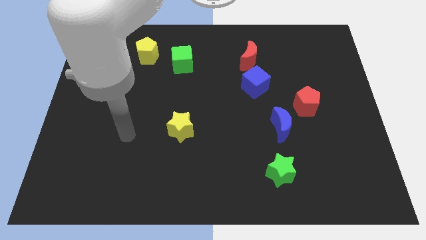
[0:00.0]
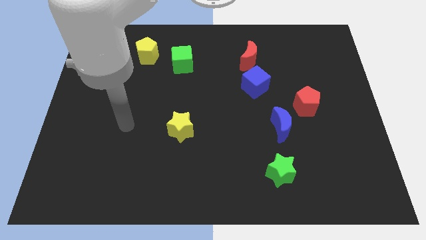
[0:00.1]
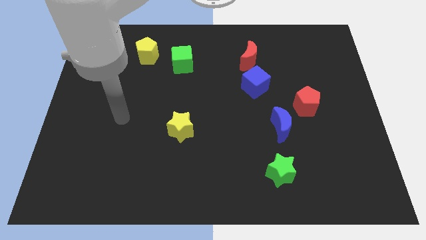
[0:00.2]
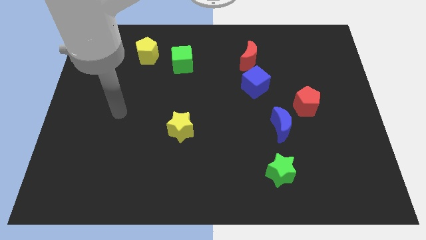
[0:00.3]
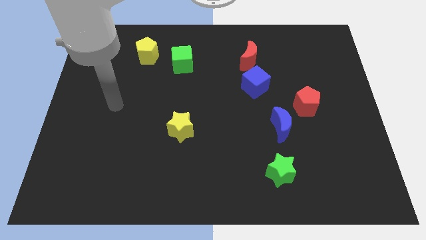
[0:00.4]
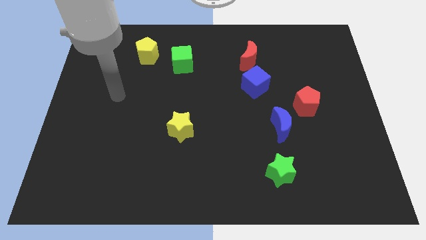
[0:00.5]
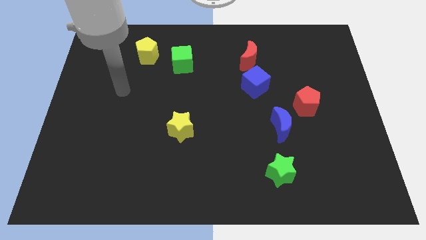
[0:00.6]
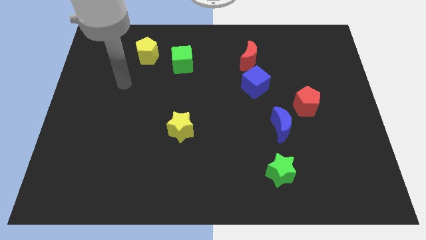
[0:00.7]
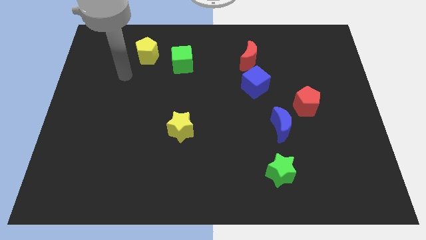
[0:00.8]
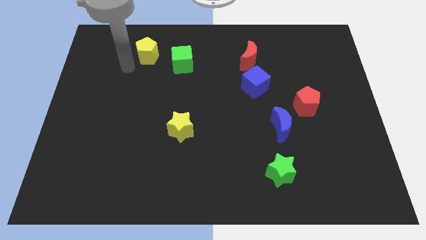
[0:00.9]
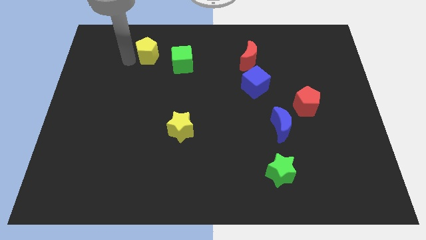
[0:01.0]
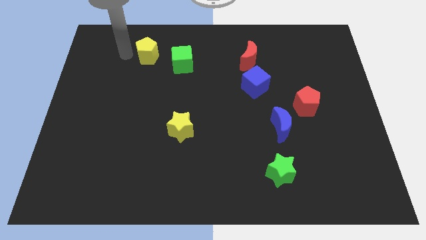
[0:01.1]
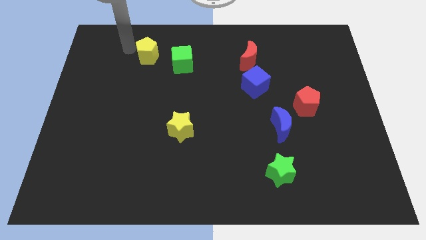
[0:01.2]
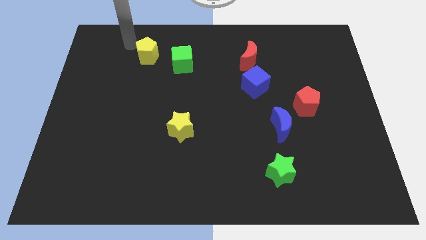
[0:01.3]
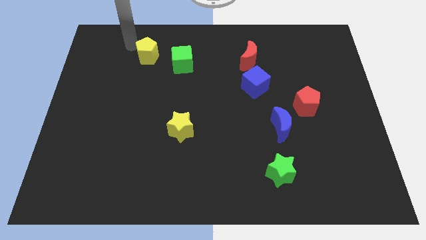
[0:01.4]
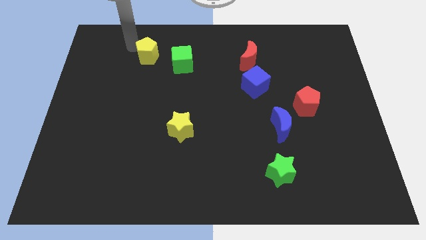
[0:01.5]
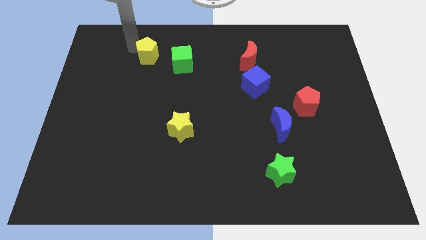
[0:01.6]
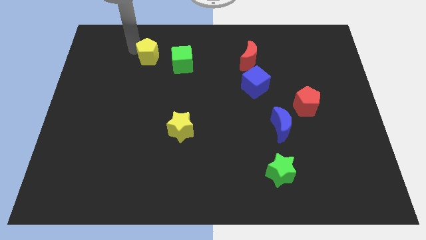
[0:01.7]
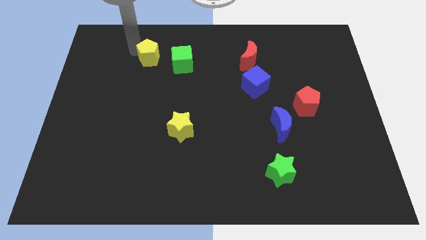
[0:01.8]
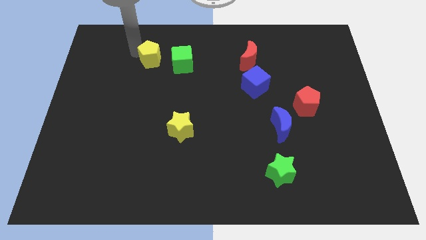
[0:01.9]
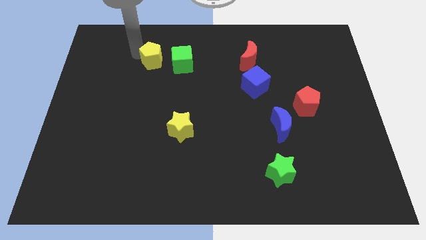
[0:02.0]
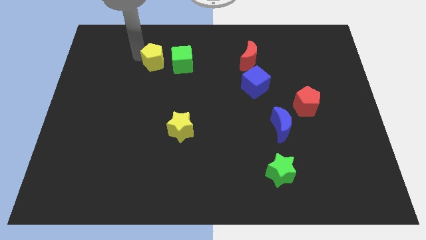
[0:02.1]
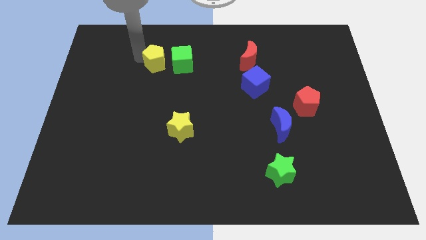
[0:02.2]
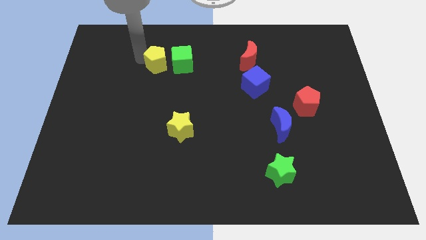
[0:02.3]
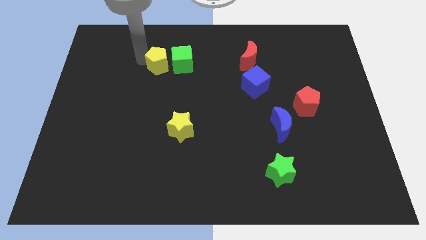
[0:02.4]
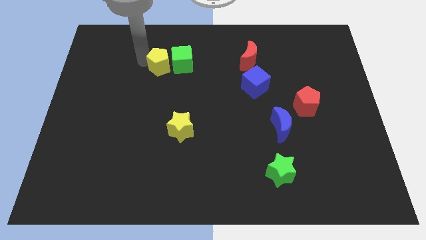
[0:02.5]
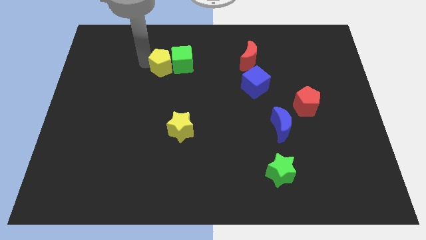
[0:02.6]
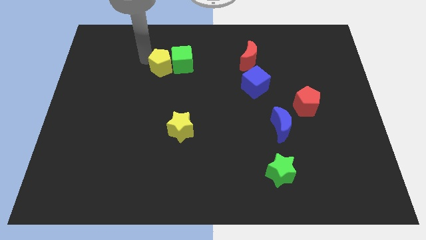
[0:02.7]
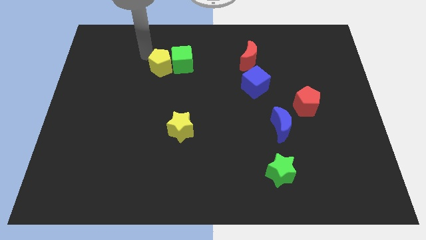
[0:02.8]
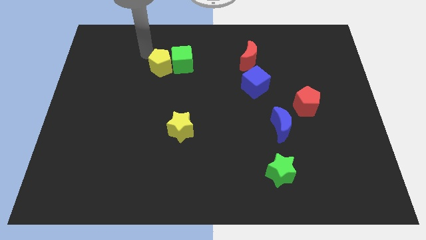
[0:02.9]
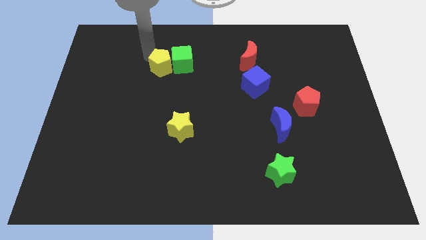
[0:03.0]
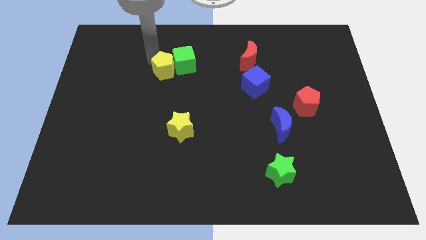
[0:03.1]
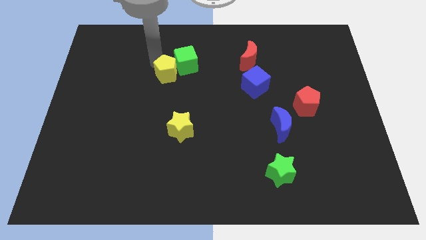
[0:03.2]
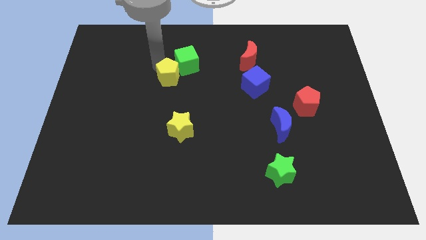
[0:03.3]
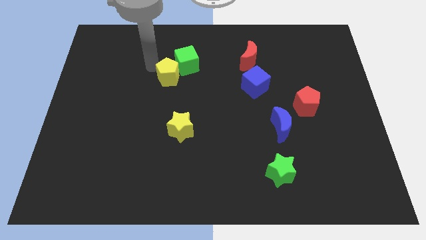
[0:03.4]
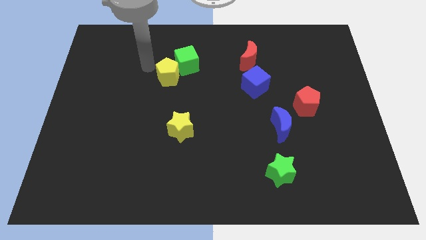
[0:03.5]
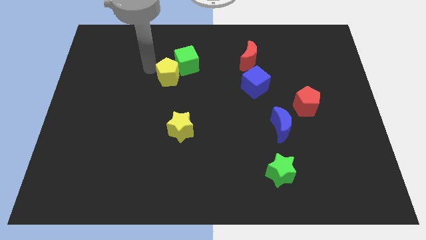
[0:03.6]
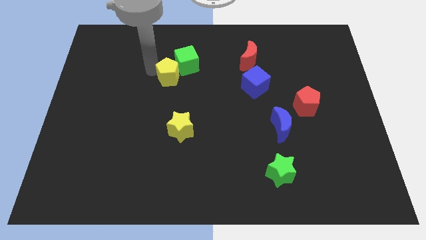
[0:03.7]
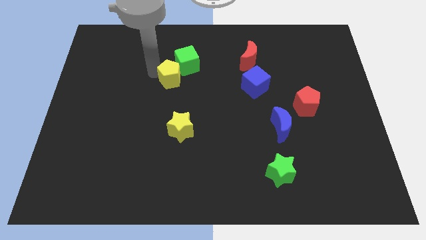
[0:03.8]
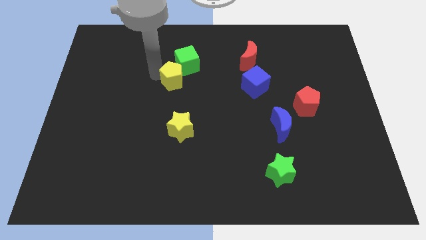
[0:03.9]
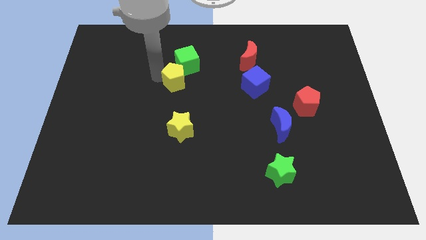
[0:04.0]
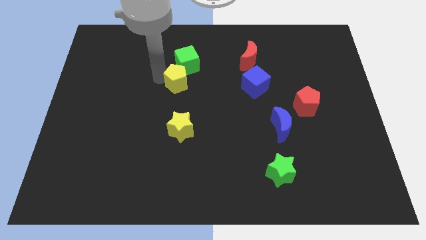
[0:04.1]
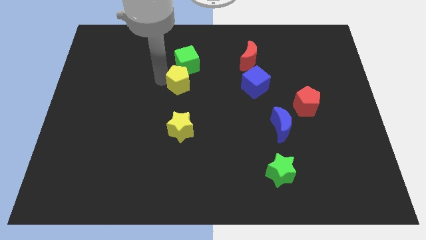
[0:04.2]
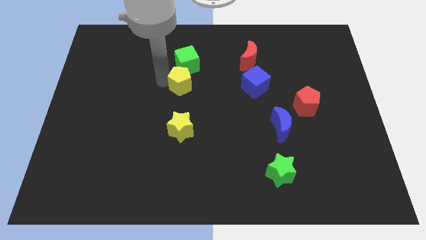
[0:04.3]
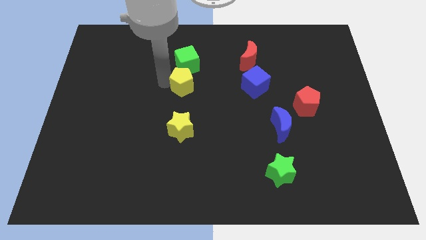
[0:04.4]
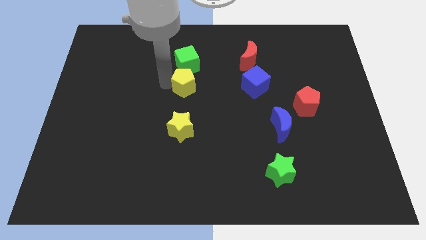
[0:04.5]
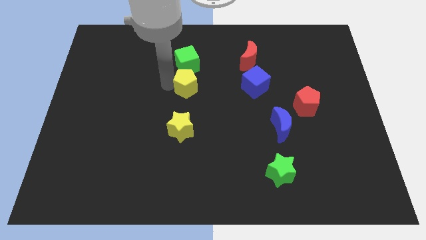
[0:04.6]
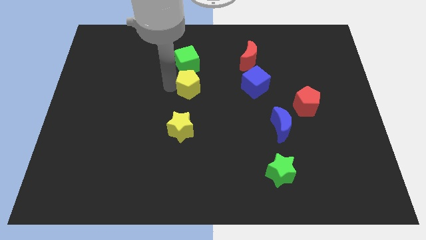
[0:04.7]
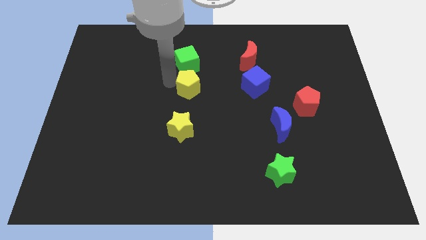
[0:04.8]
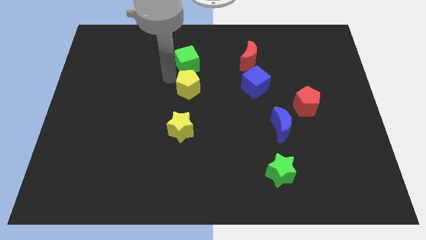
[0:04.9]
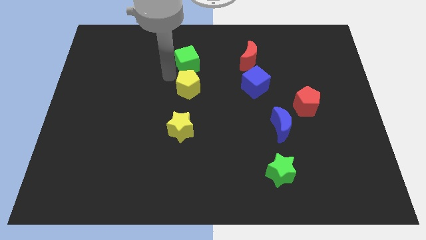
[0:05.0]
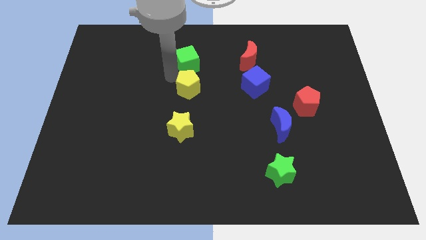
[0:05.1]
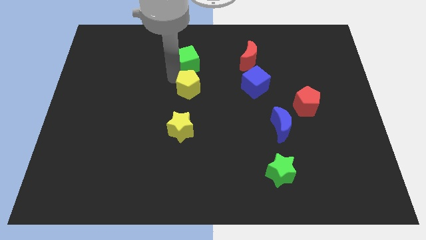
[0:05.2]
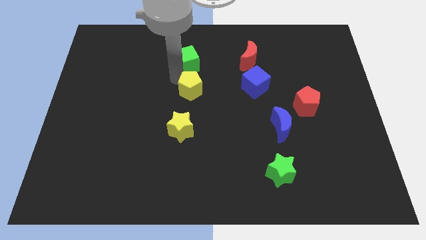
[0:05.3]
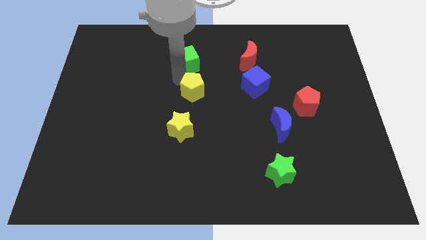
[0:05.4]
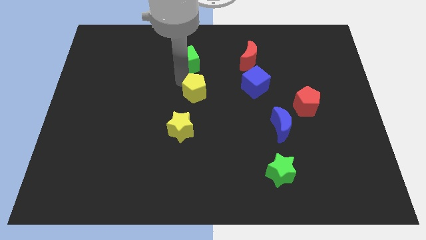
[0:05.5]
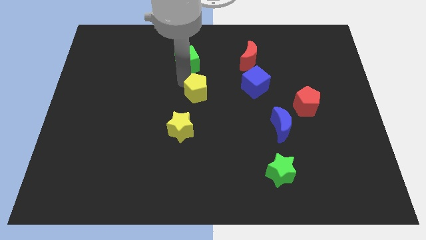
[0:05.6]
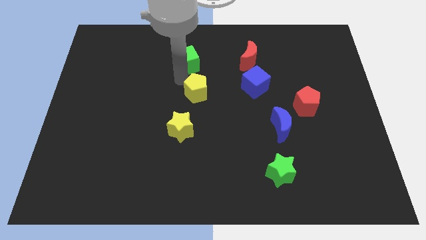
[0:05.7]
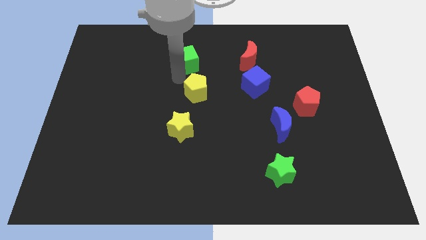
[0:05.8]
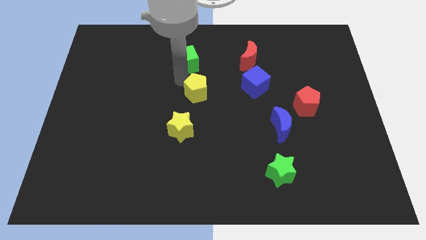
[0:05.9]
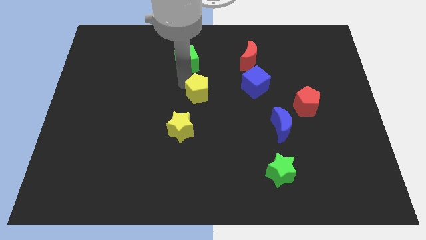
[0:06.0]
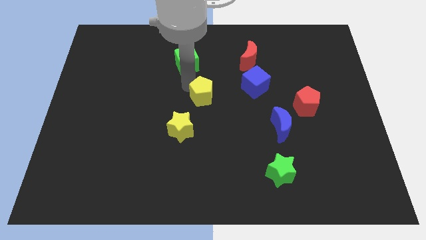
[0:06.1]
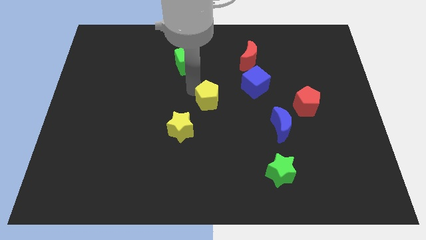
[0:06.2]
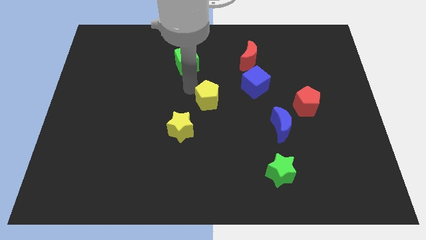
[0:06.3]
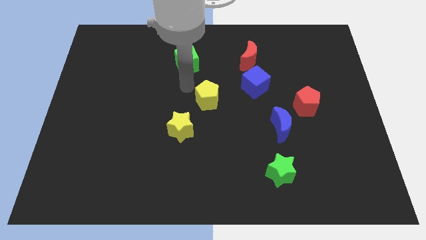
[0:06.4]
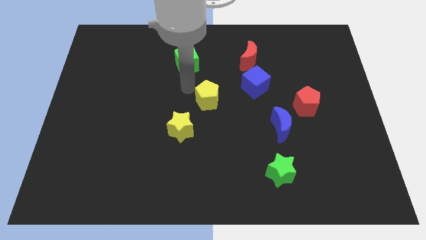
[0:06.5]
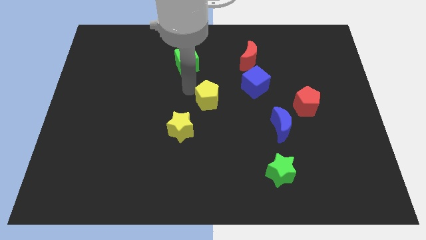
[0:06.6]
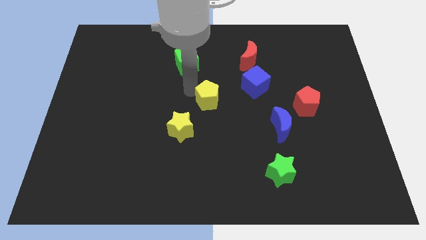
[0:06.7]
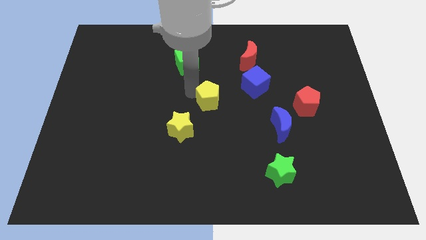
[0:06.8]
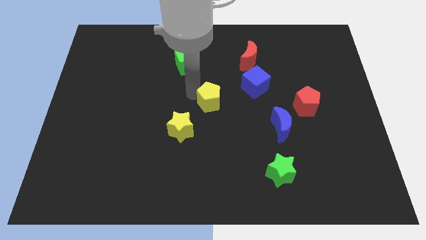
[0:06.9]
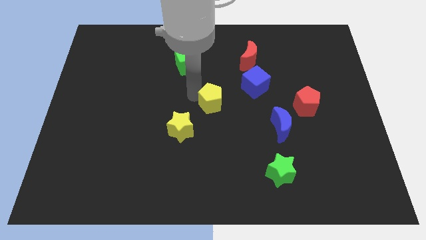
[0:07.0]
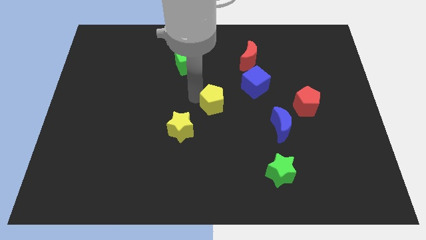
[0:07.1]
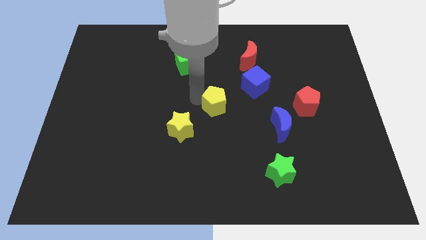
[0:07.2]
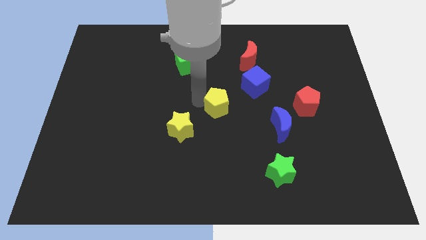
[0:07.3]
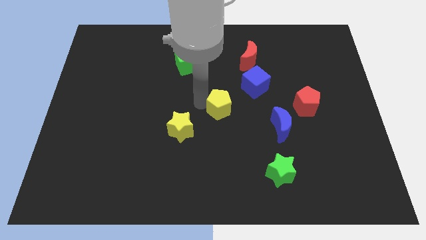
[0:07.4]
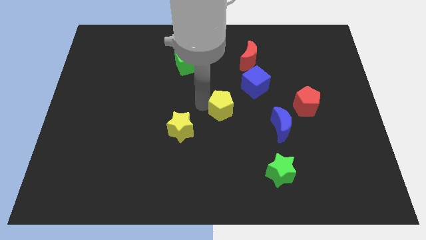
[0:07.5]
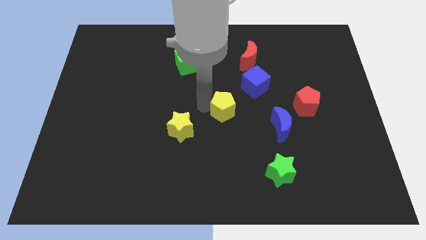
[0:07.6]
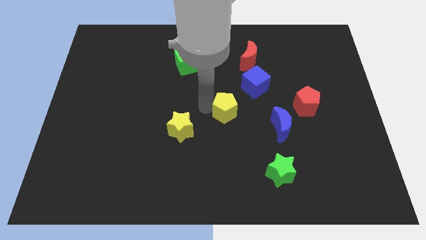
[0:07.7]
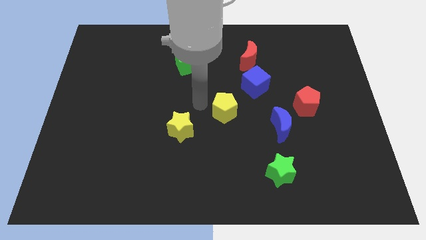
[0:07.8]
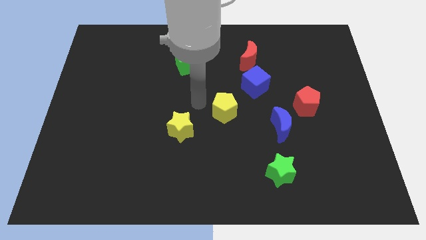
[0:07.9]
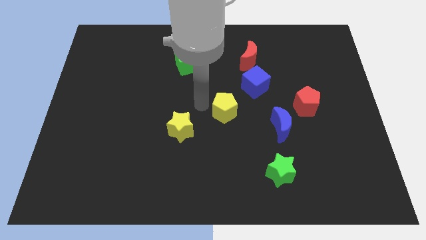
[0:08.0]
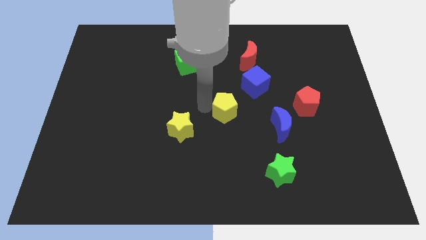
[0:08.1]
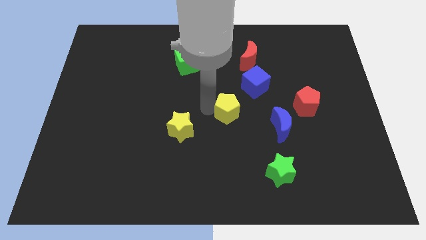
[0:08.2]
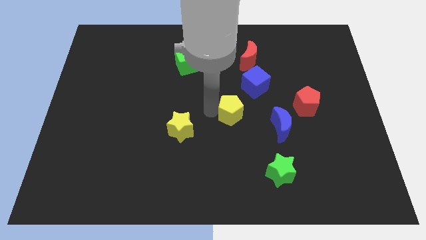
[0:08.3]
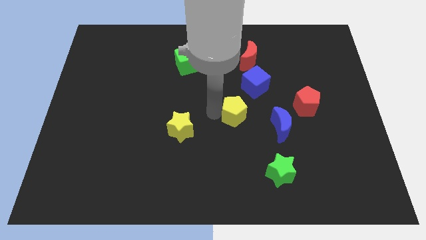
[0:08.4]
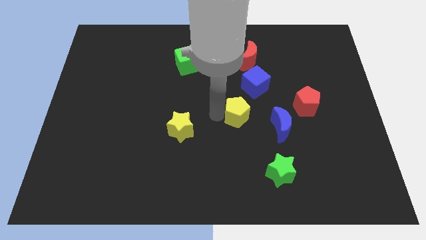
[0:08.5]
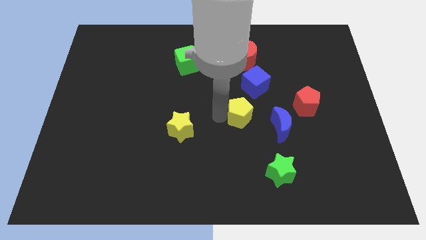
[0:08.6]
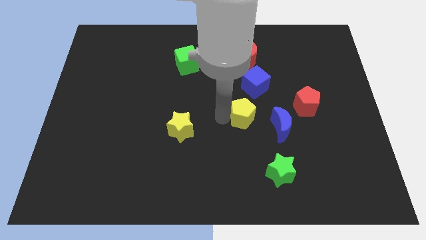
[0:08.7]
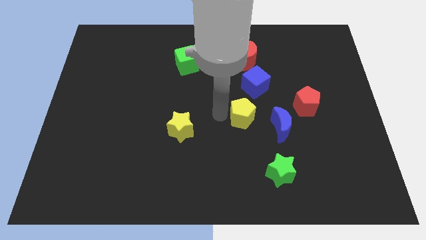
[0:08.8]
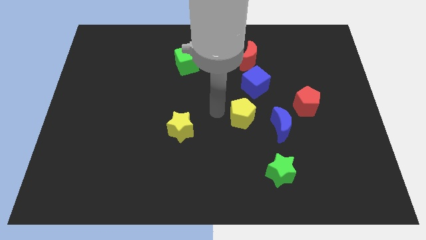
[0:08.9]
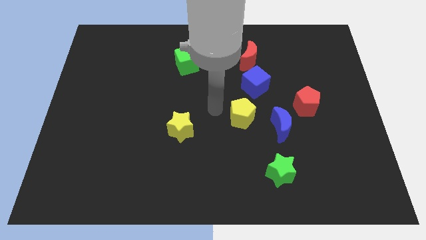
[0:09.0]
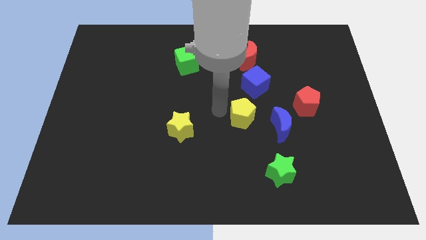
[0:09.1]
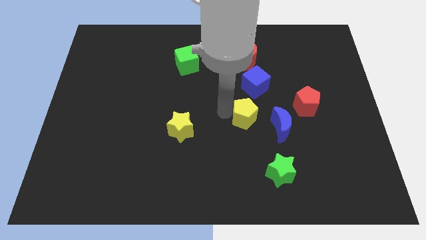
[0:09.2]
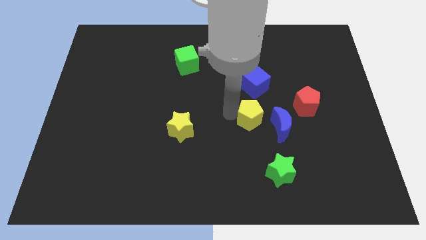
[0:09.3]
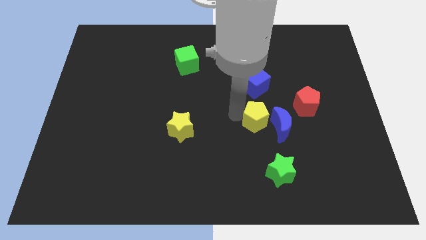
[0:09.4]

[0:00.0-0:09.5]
push the yellow pentagon close to the blue moon
